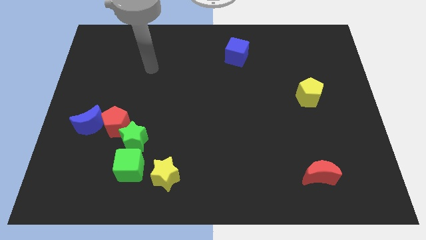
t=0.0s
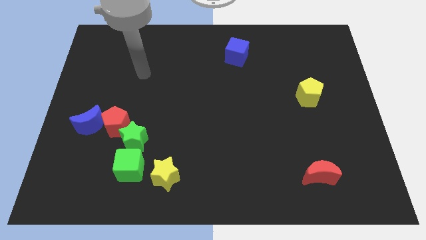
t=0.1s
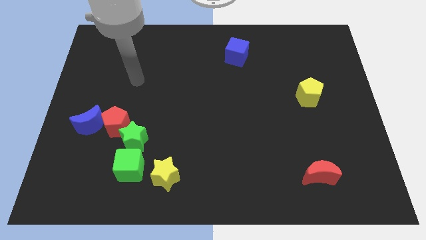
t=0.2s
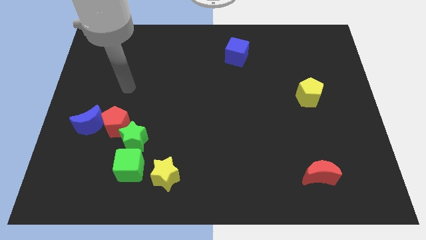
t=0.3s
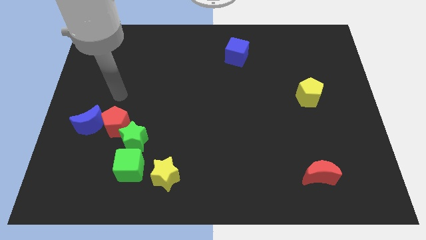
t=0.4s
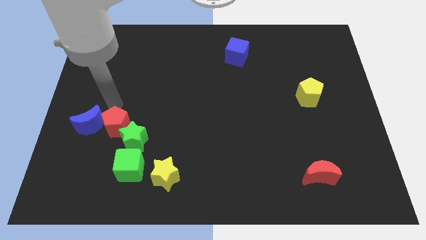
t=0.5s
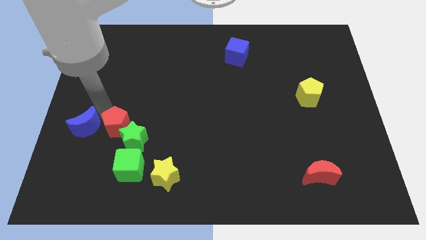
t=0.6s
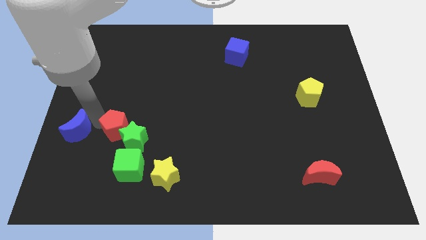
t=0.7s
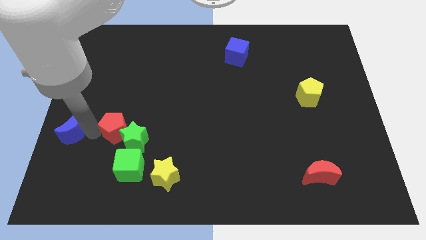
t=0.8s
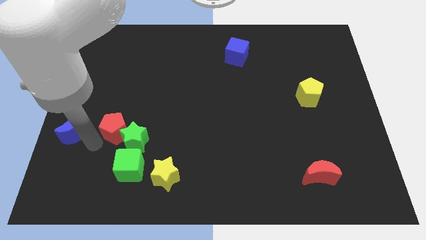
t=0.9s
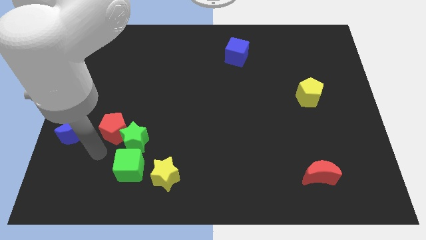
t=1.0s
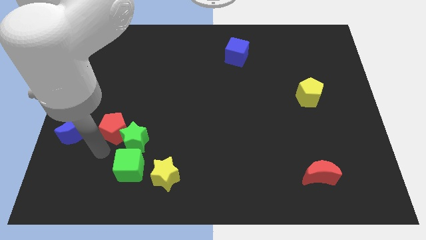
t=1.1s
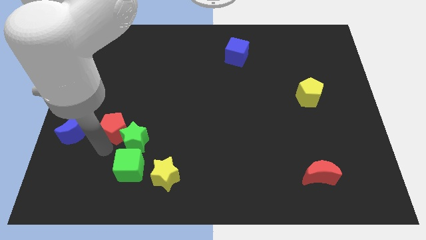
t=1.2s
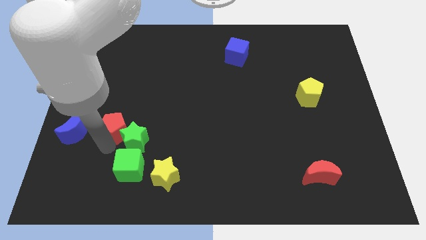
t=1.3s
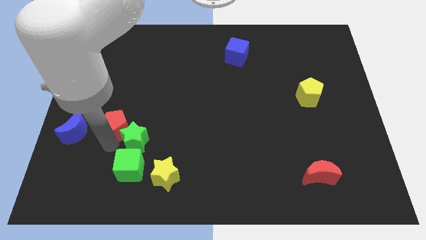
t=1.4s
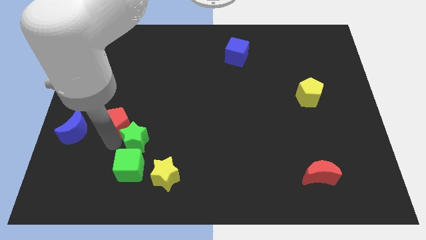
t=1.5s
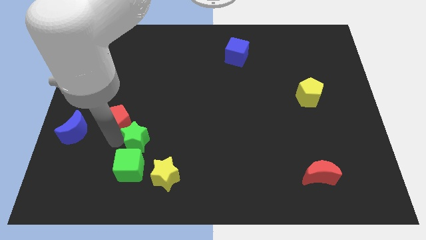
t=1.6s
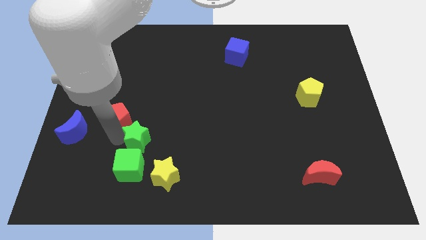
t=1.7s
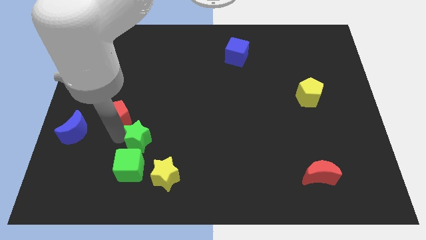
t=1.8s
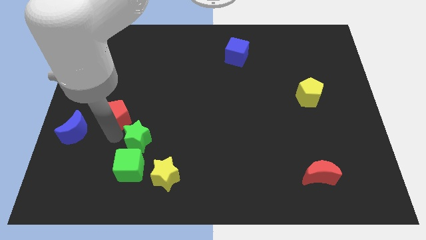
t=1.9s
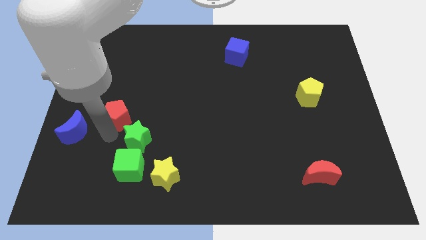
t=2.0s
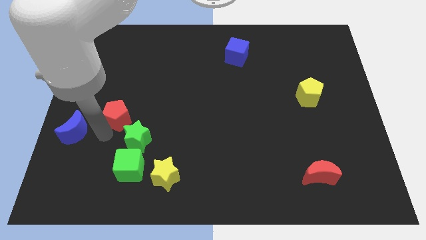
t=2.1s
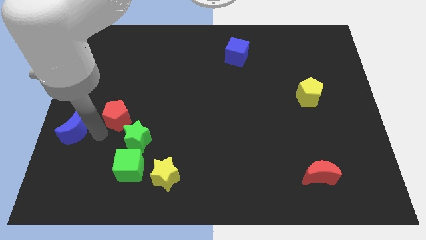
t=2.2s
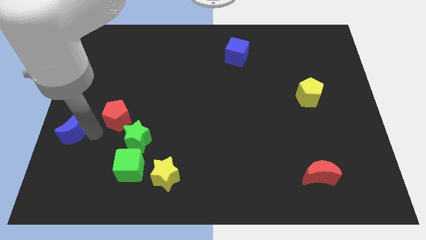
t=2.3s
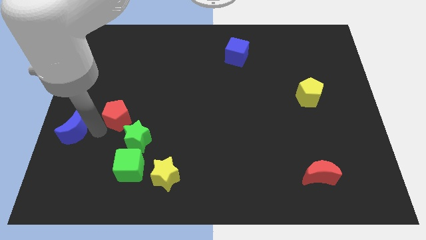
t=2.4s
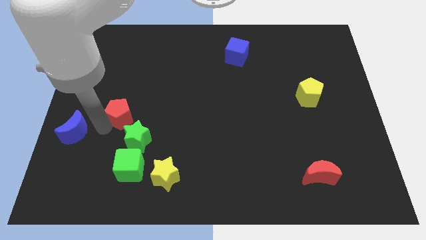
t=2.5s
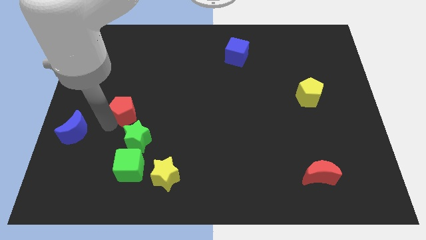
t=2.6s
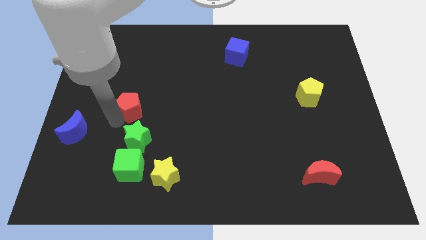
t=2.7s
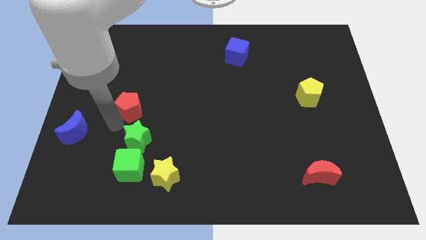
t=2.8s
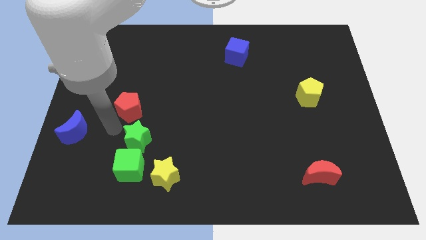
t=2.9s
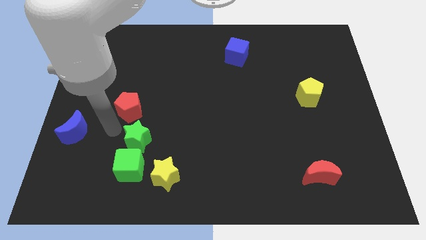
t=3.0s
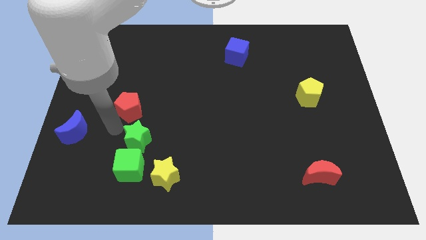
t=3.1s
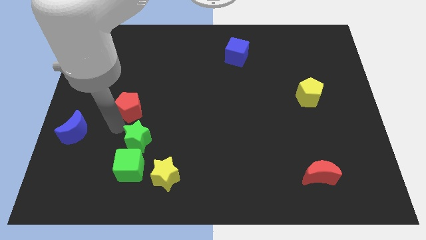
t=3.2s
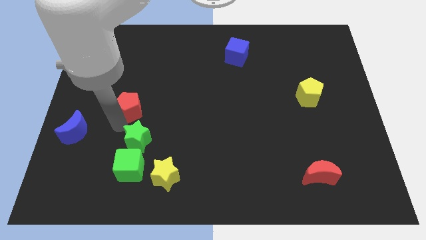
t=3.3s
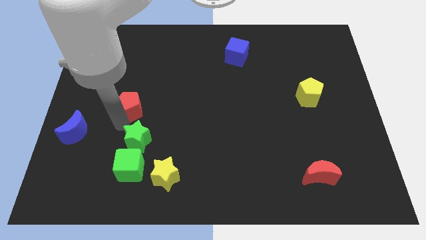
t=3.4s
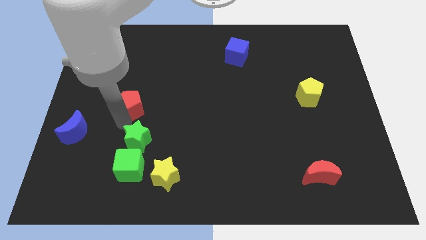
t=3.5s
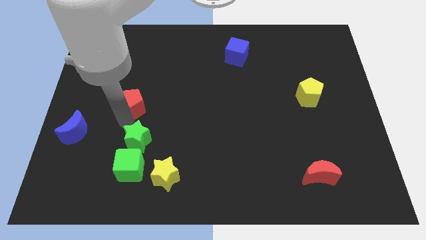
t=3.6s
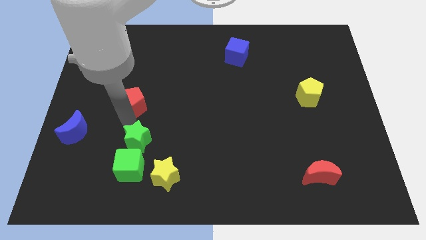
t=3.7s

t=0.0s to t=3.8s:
pull the red pentagon apart from the green star and blue moon

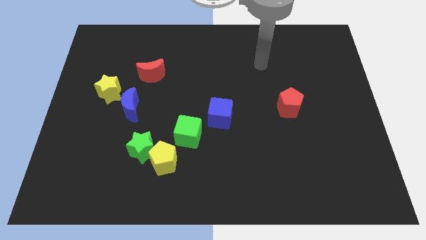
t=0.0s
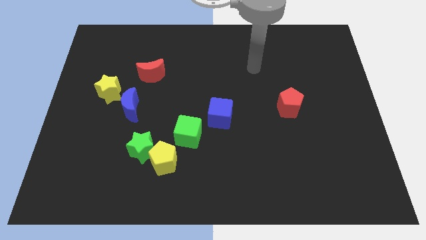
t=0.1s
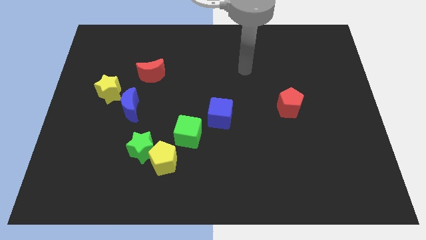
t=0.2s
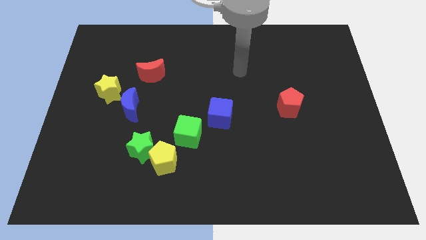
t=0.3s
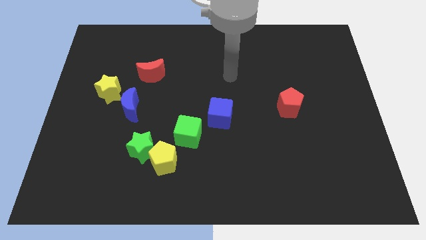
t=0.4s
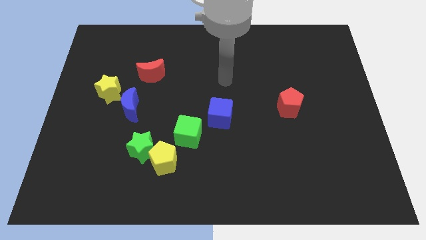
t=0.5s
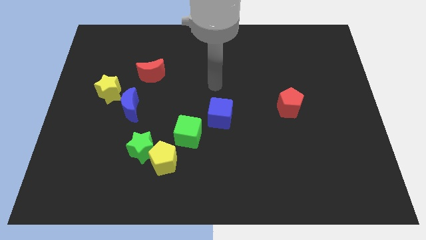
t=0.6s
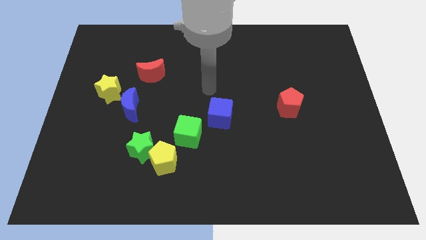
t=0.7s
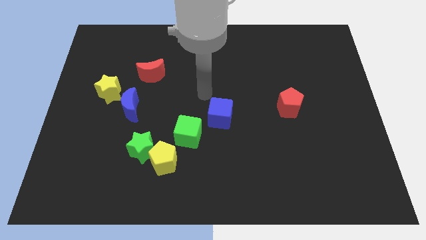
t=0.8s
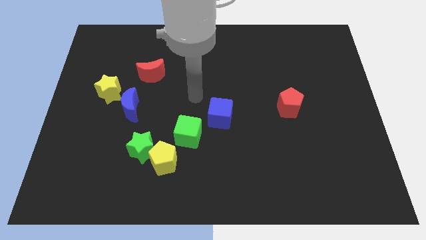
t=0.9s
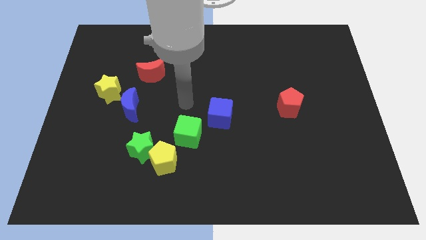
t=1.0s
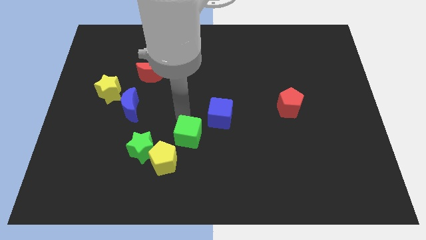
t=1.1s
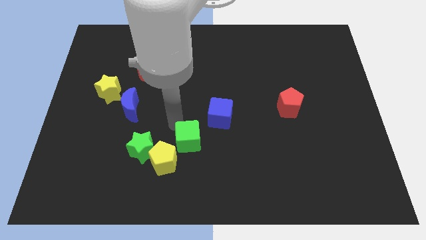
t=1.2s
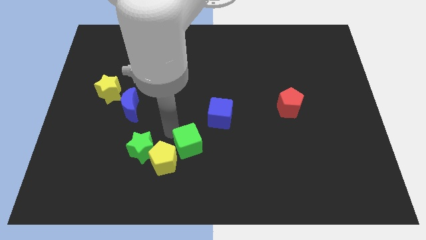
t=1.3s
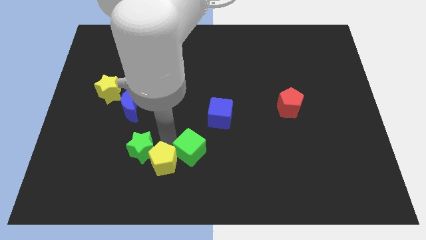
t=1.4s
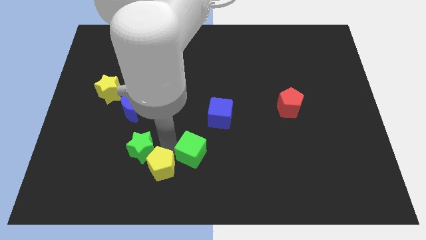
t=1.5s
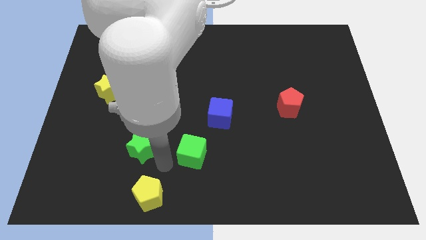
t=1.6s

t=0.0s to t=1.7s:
pull the green star apart from the yellow pentagon

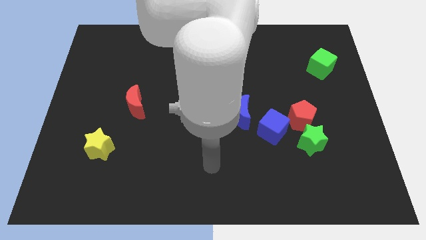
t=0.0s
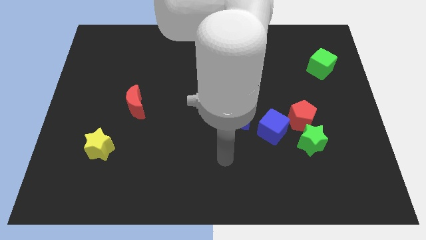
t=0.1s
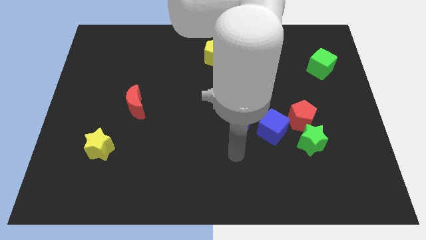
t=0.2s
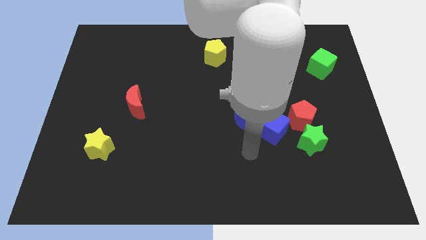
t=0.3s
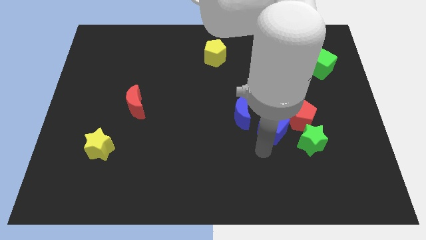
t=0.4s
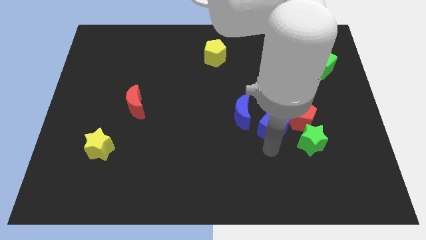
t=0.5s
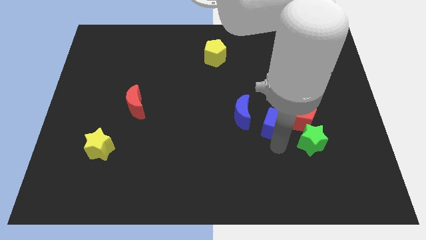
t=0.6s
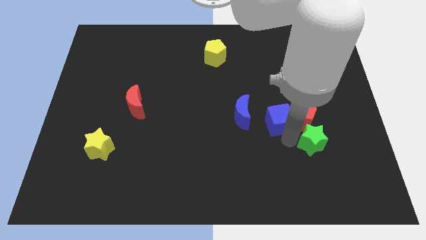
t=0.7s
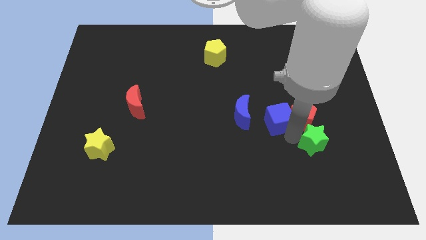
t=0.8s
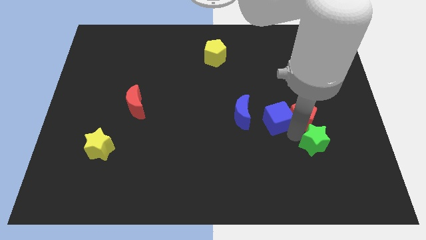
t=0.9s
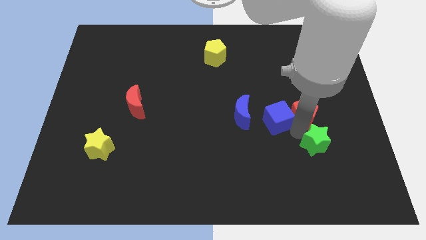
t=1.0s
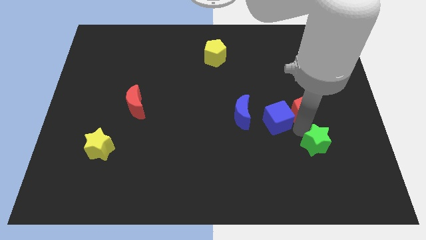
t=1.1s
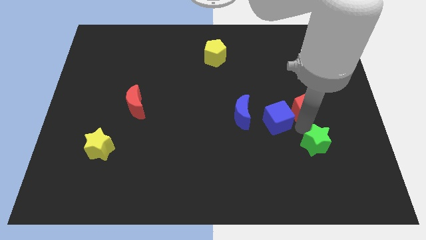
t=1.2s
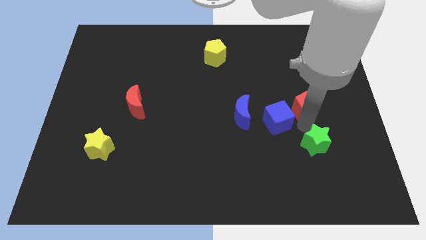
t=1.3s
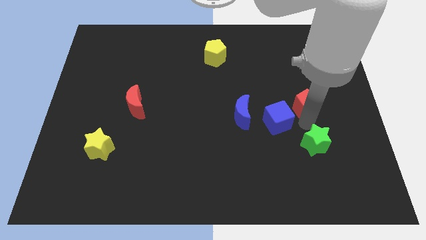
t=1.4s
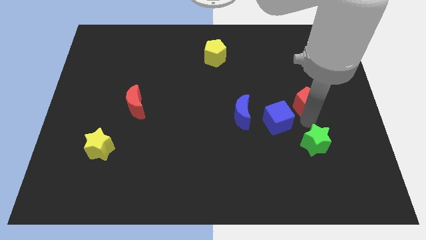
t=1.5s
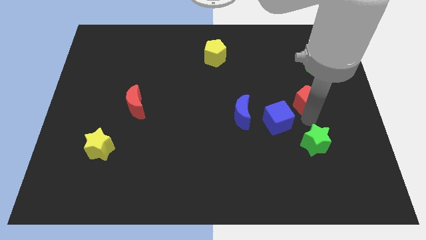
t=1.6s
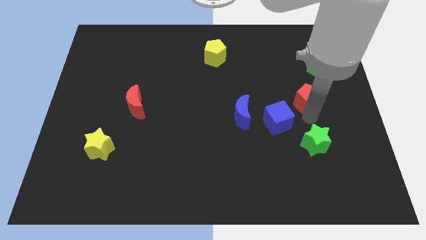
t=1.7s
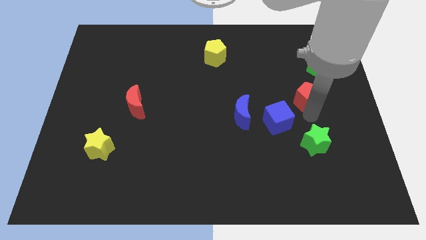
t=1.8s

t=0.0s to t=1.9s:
separate the red pentagon from the green star and blue cube

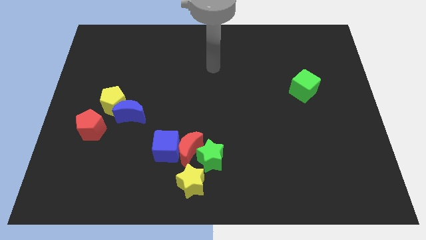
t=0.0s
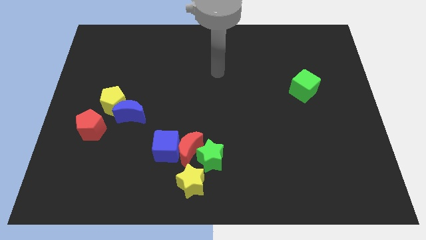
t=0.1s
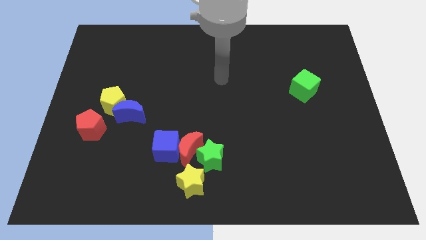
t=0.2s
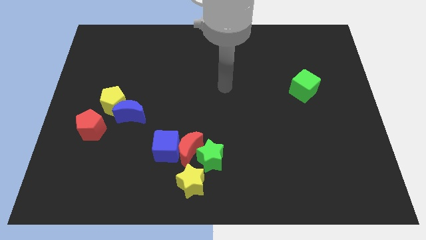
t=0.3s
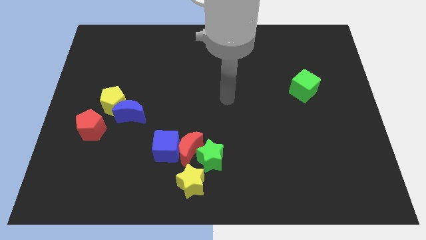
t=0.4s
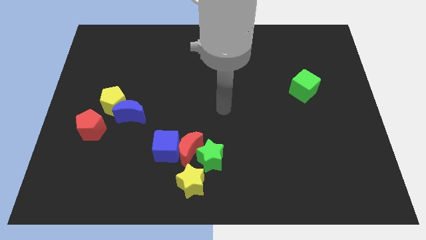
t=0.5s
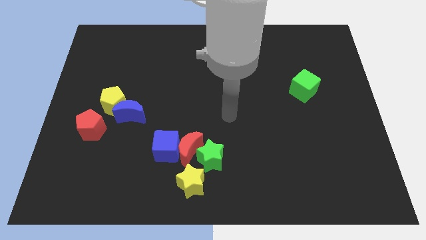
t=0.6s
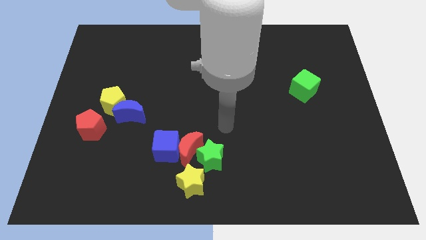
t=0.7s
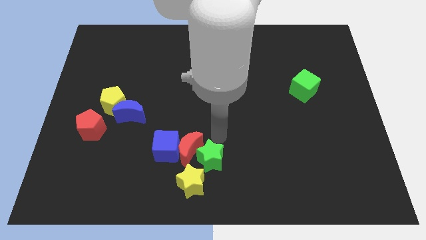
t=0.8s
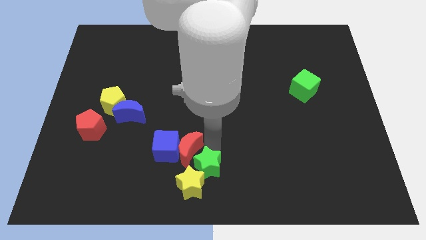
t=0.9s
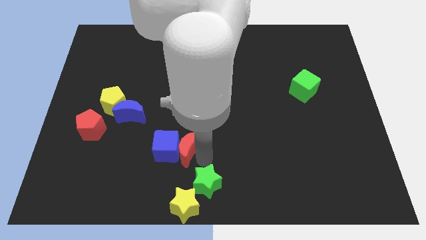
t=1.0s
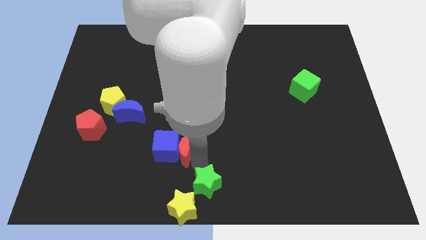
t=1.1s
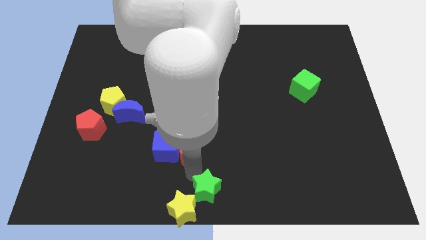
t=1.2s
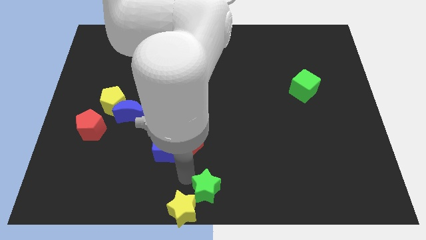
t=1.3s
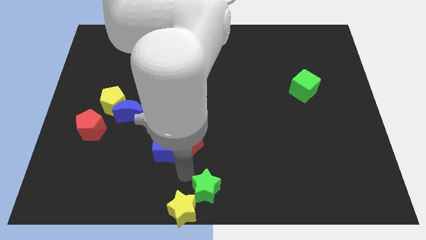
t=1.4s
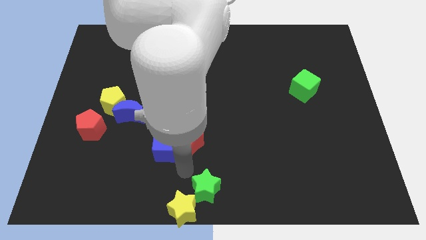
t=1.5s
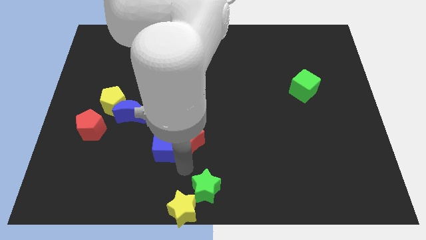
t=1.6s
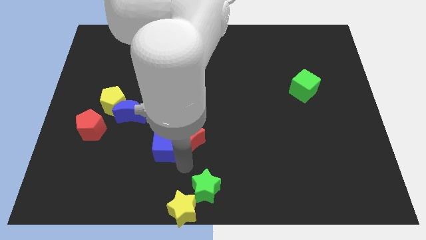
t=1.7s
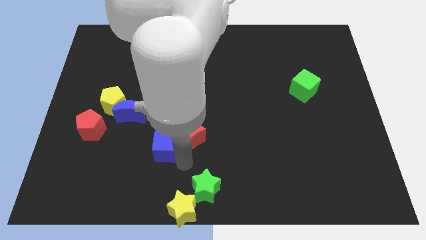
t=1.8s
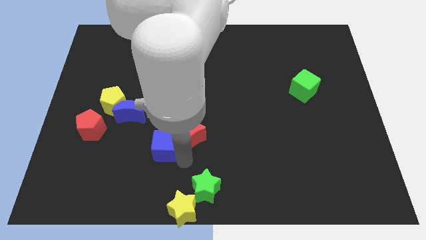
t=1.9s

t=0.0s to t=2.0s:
pull the red moon apart from the group

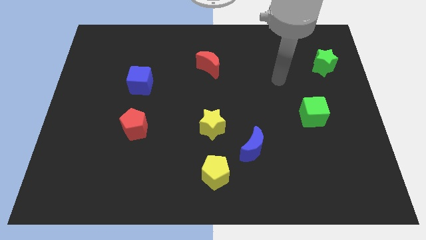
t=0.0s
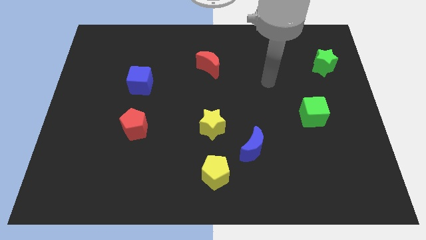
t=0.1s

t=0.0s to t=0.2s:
move the blue moon away from the yellow pentagon
